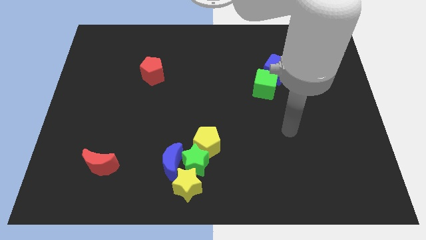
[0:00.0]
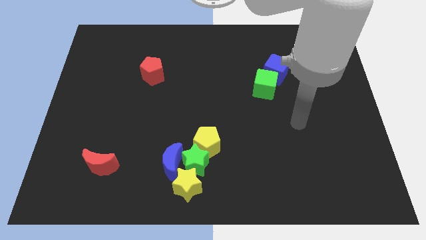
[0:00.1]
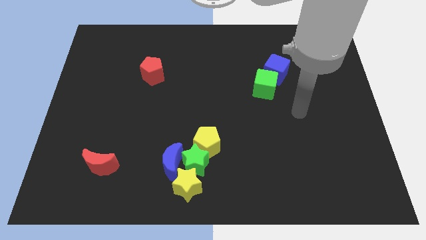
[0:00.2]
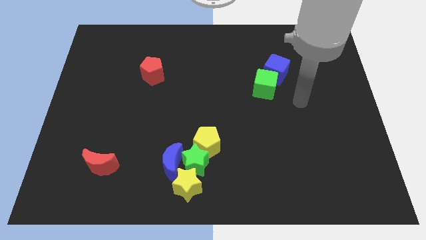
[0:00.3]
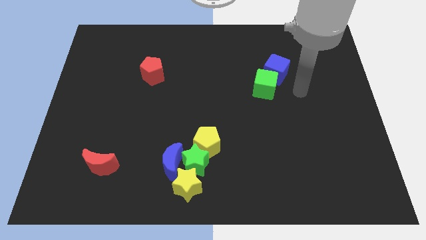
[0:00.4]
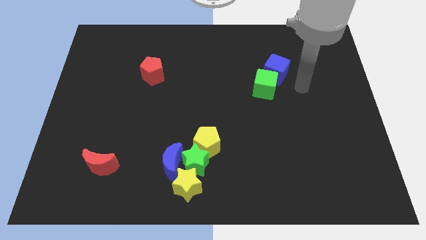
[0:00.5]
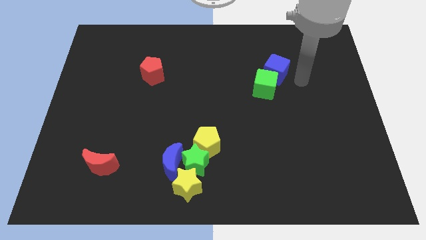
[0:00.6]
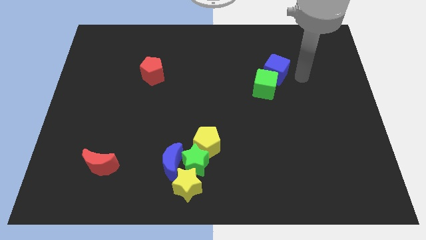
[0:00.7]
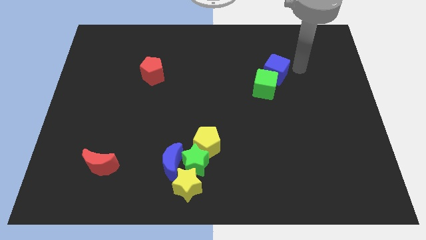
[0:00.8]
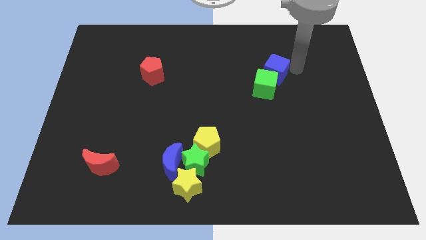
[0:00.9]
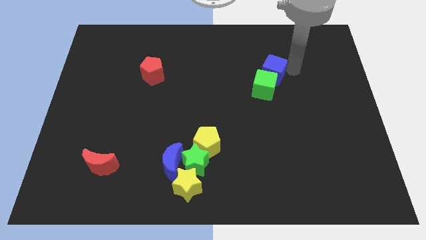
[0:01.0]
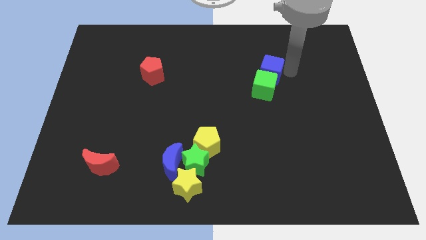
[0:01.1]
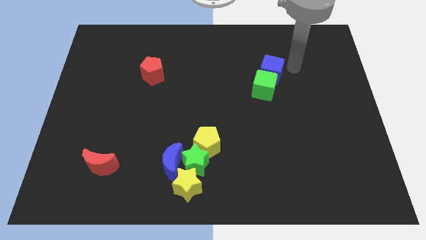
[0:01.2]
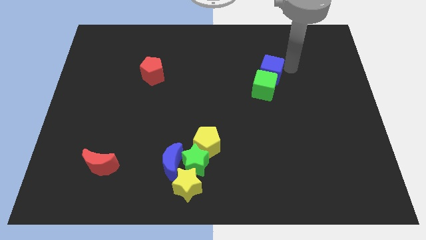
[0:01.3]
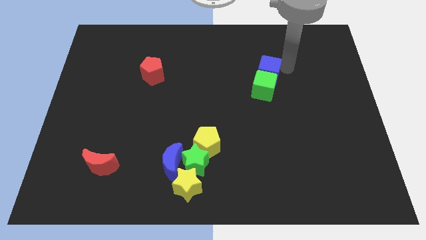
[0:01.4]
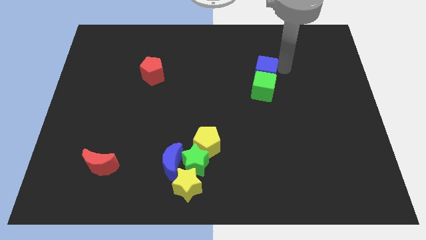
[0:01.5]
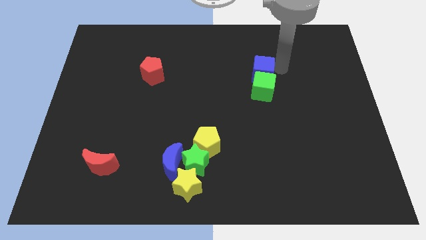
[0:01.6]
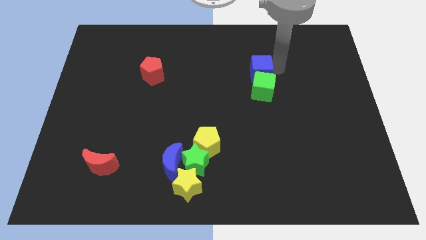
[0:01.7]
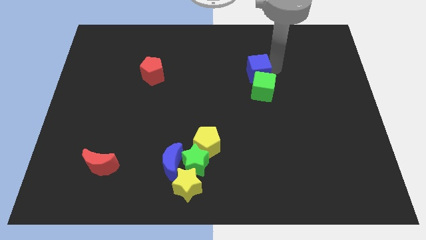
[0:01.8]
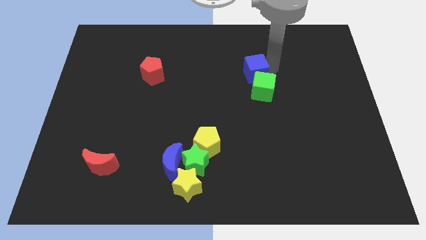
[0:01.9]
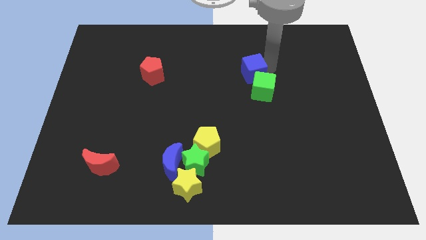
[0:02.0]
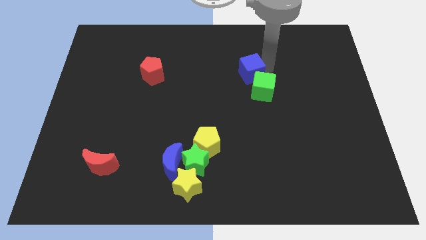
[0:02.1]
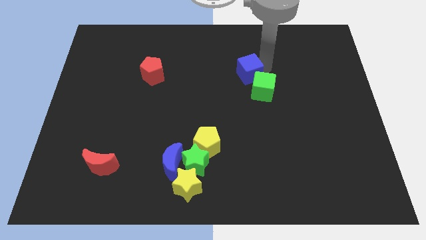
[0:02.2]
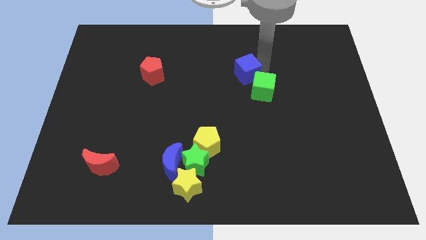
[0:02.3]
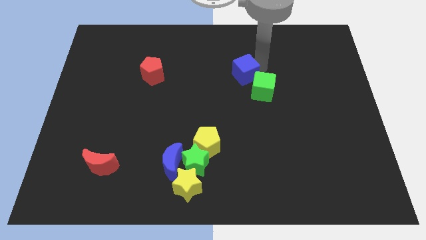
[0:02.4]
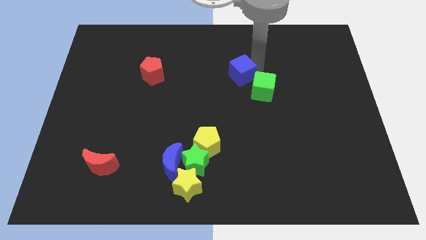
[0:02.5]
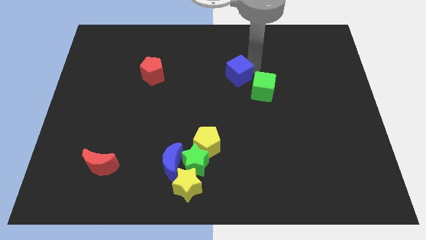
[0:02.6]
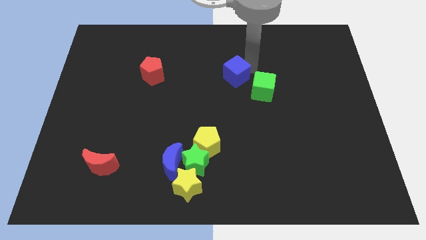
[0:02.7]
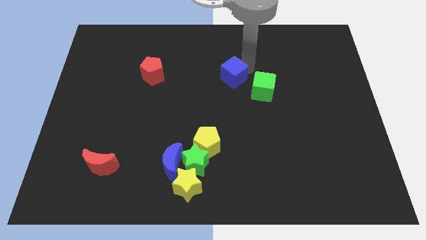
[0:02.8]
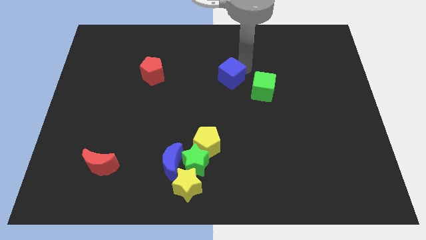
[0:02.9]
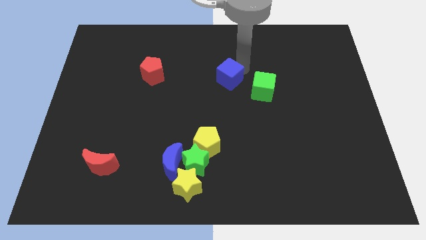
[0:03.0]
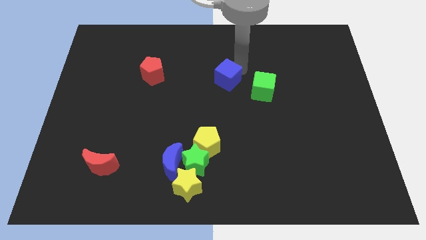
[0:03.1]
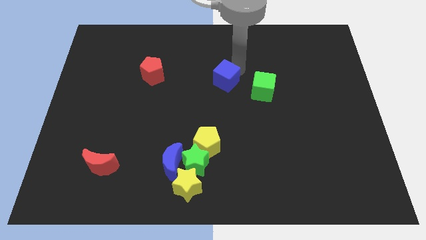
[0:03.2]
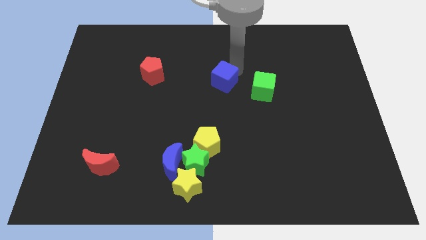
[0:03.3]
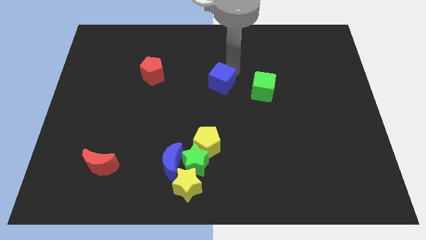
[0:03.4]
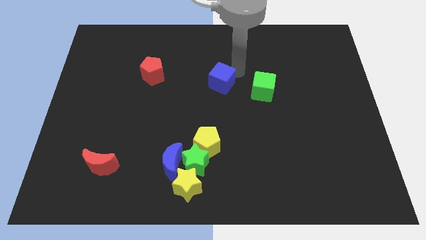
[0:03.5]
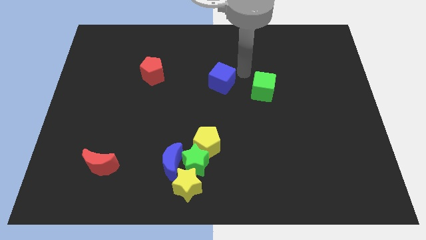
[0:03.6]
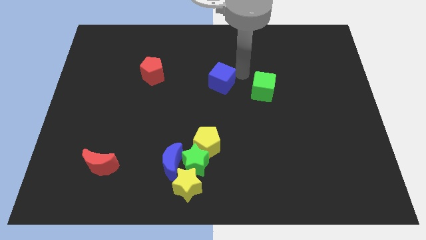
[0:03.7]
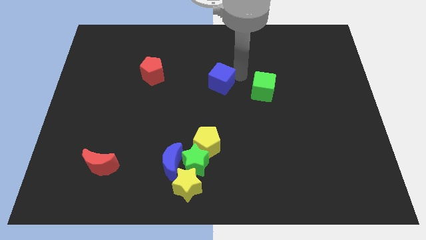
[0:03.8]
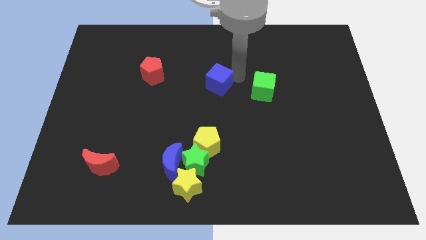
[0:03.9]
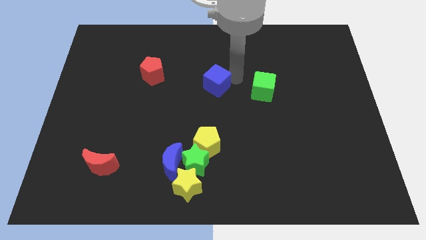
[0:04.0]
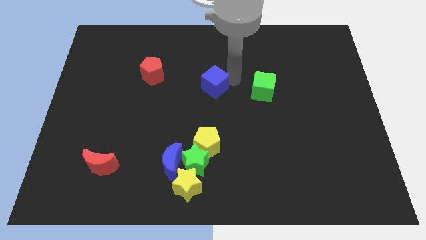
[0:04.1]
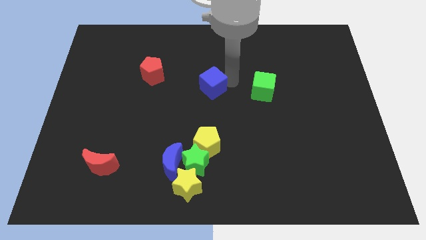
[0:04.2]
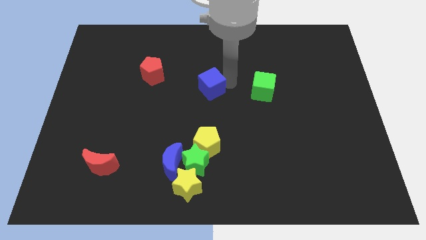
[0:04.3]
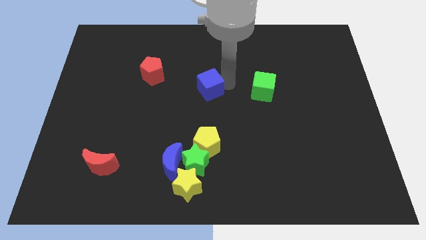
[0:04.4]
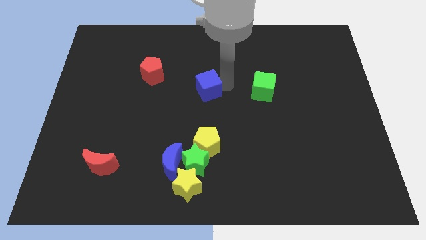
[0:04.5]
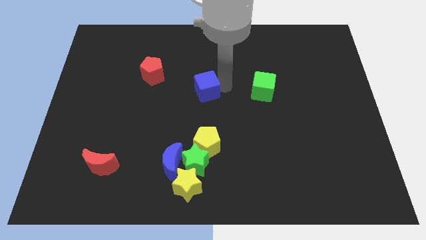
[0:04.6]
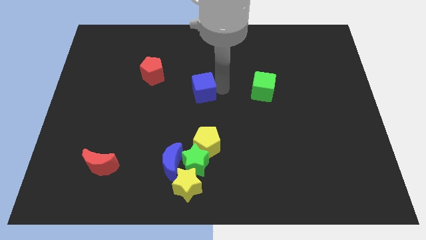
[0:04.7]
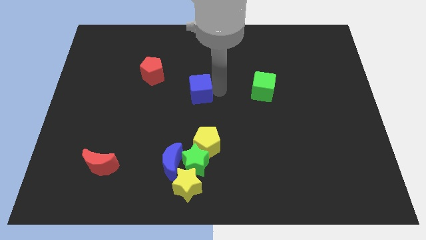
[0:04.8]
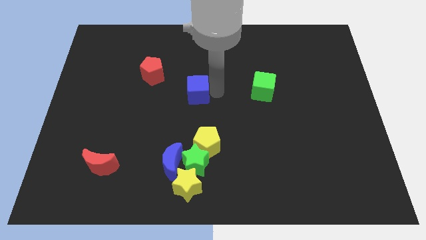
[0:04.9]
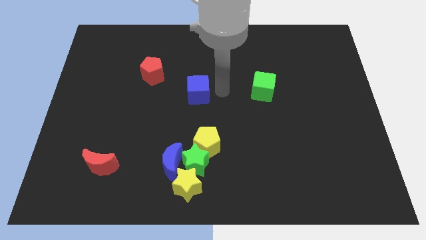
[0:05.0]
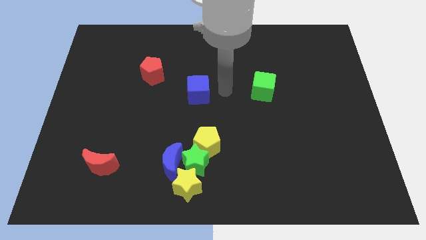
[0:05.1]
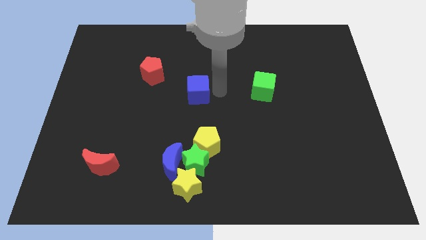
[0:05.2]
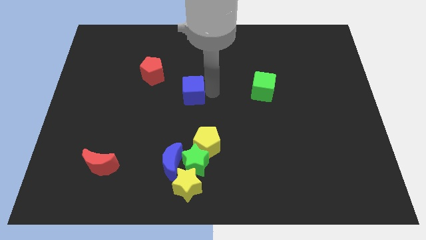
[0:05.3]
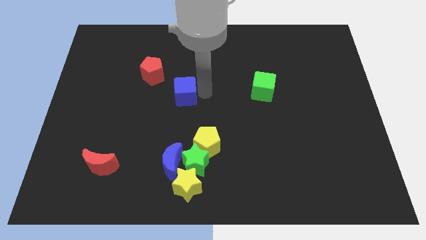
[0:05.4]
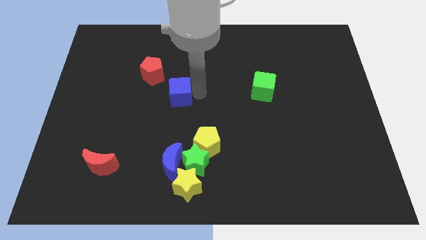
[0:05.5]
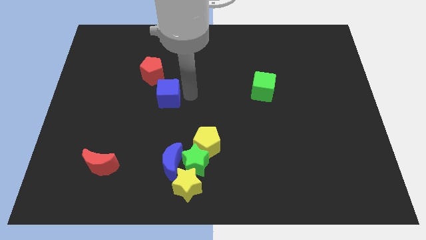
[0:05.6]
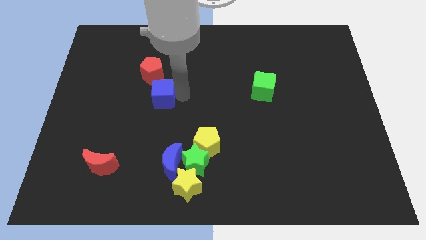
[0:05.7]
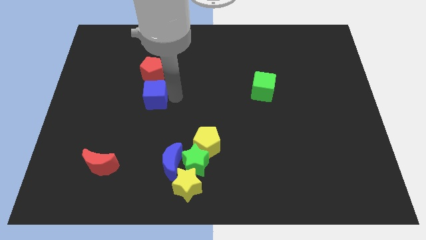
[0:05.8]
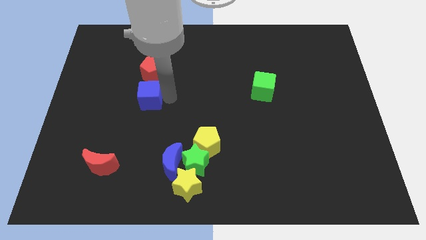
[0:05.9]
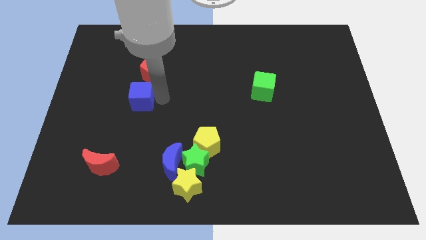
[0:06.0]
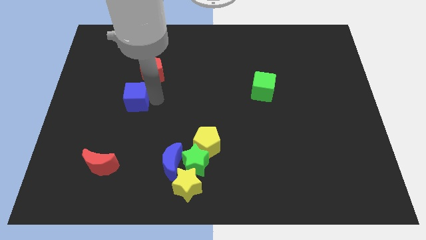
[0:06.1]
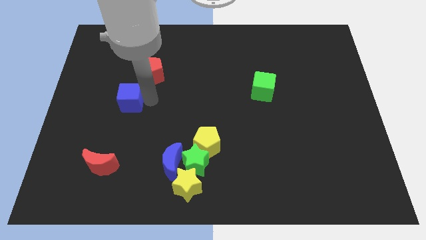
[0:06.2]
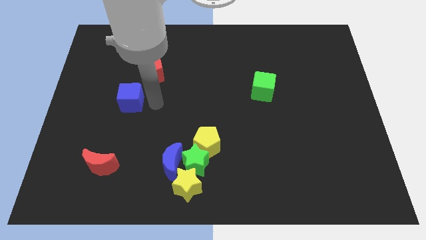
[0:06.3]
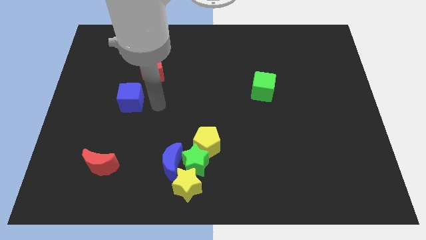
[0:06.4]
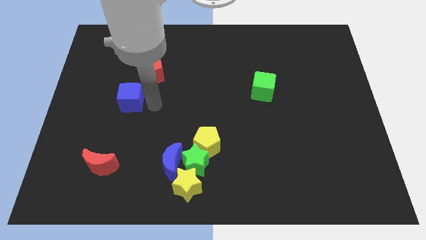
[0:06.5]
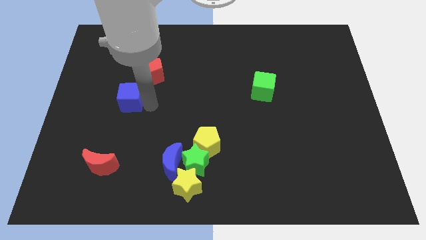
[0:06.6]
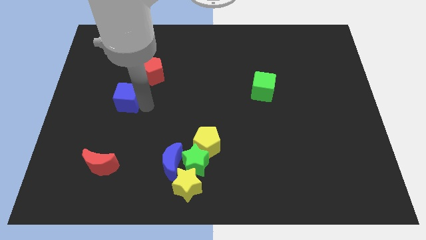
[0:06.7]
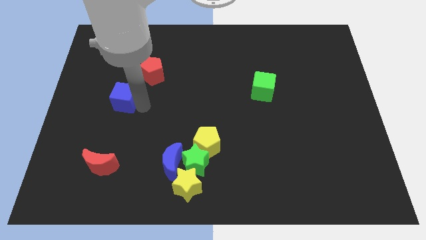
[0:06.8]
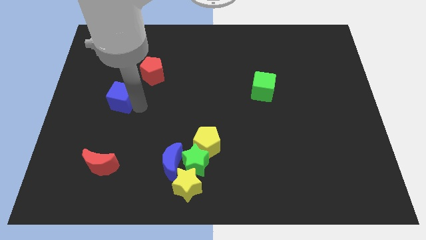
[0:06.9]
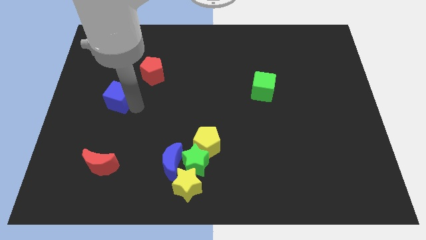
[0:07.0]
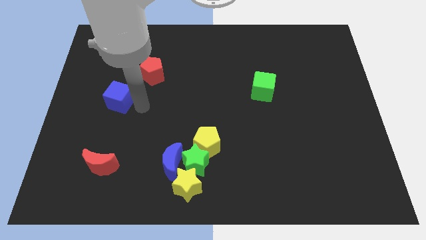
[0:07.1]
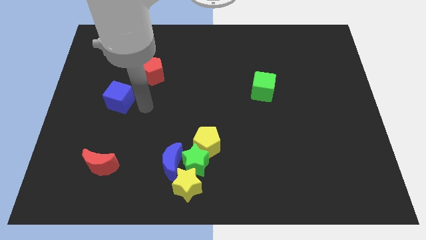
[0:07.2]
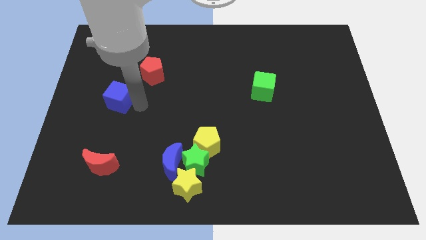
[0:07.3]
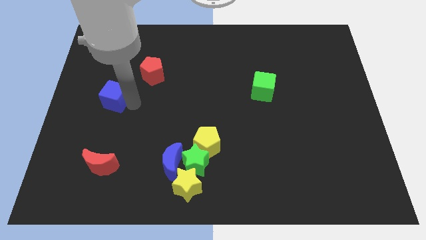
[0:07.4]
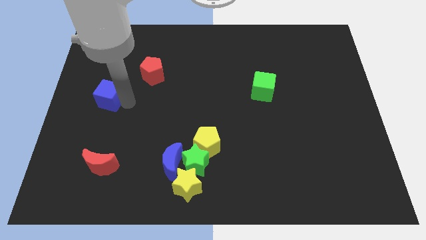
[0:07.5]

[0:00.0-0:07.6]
slide the blue cube to the center left
